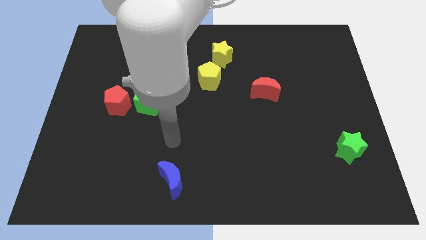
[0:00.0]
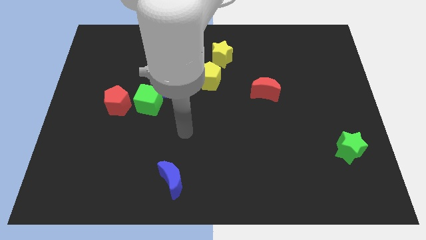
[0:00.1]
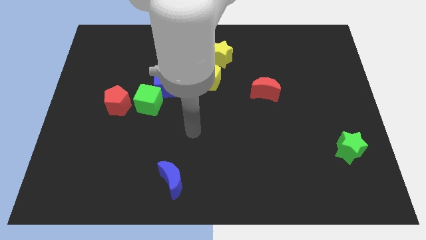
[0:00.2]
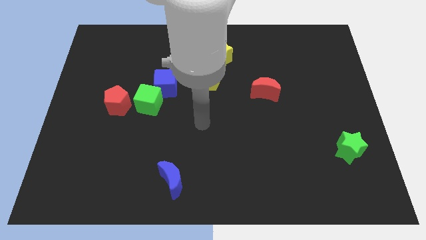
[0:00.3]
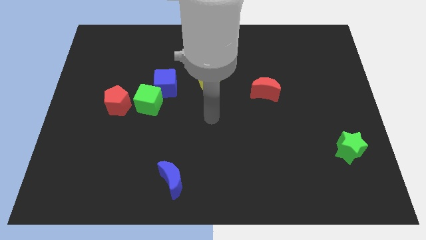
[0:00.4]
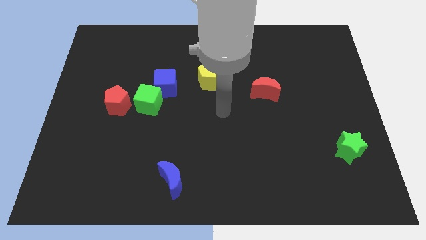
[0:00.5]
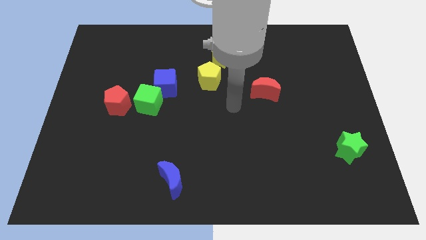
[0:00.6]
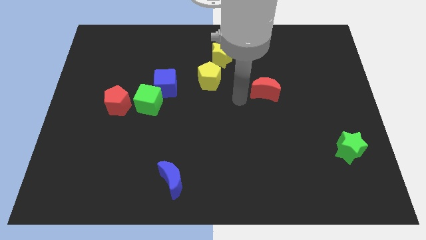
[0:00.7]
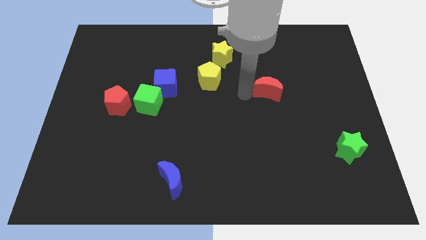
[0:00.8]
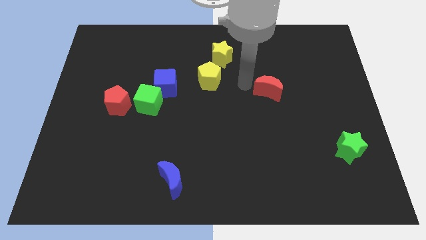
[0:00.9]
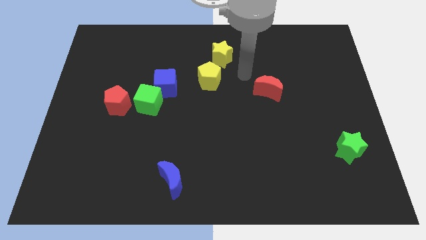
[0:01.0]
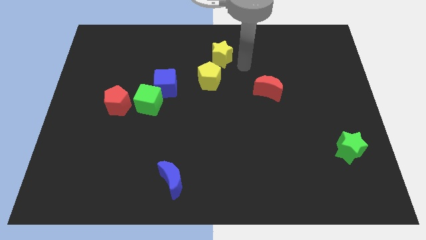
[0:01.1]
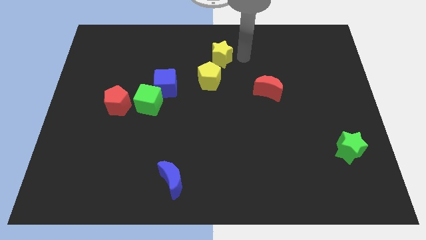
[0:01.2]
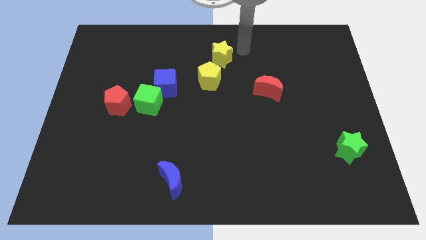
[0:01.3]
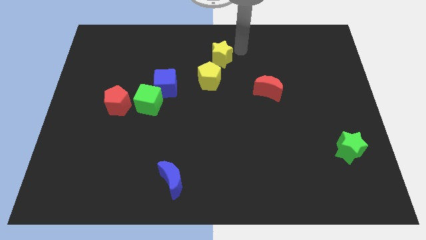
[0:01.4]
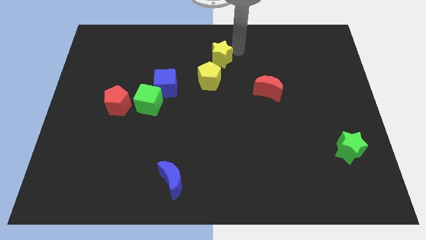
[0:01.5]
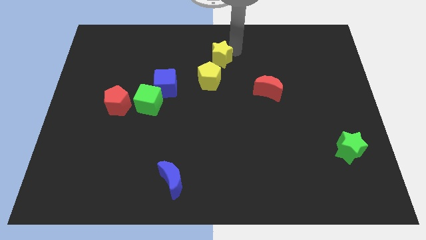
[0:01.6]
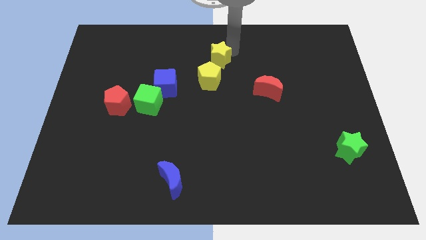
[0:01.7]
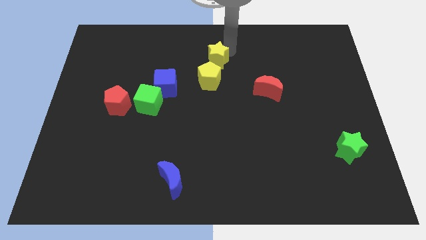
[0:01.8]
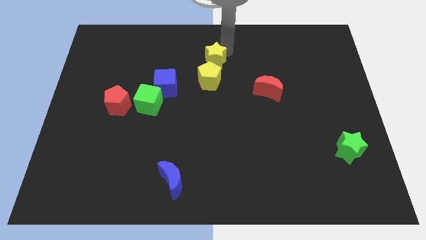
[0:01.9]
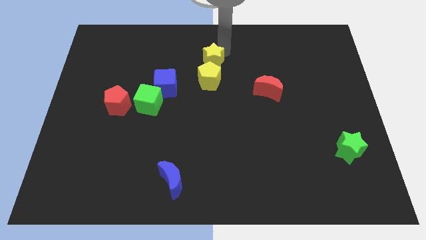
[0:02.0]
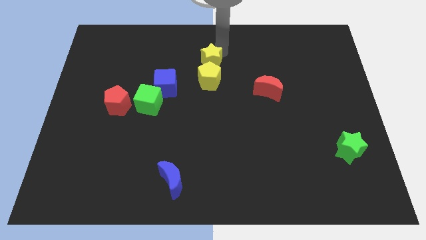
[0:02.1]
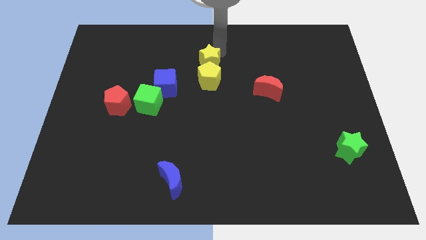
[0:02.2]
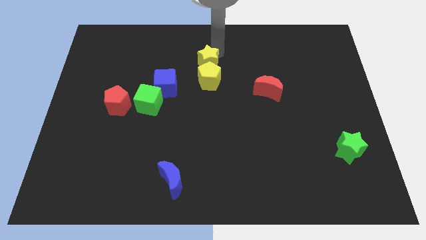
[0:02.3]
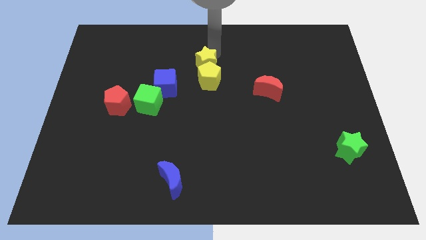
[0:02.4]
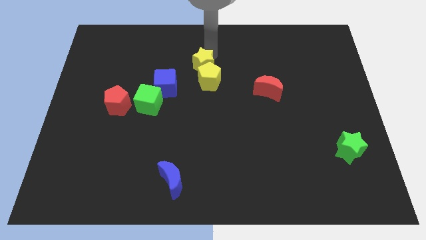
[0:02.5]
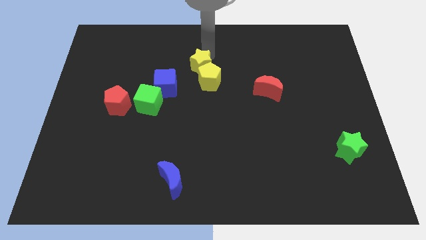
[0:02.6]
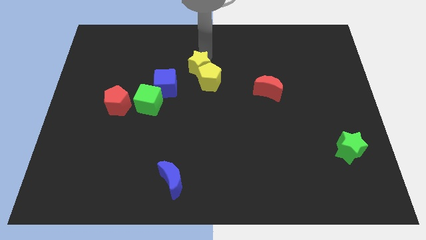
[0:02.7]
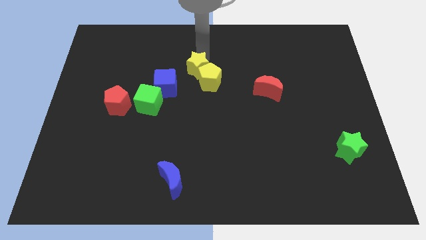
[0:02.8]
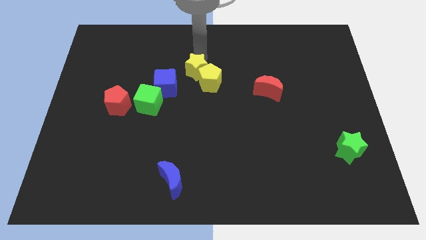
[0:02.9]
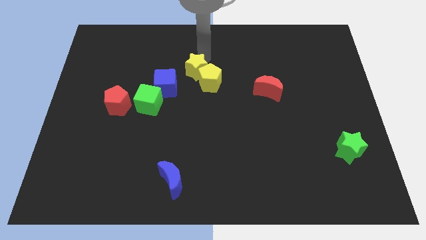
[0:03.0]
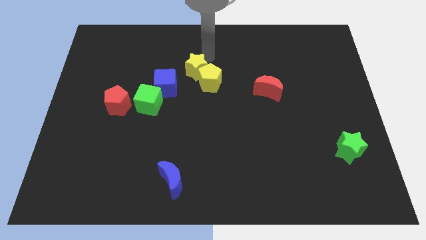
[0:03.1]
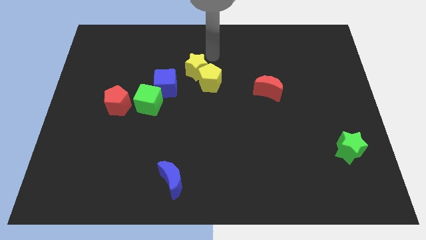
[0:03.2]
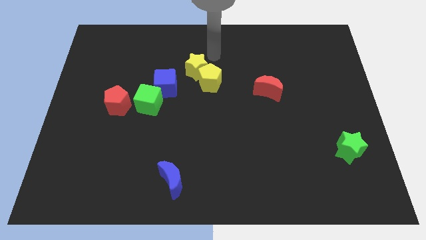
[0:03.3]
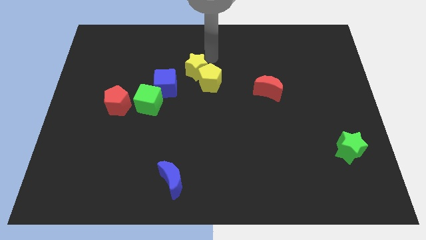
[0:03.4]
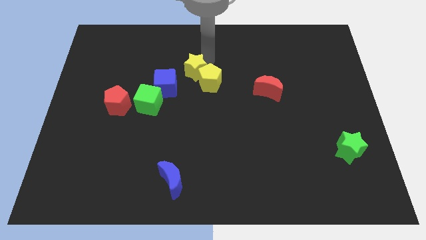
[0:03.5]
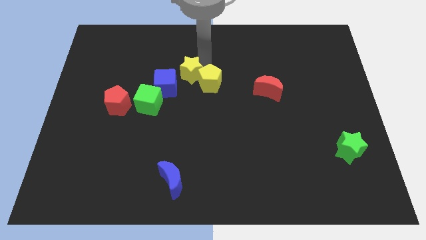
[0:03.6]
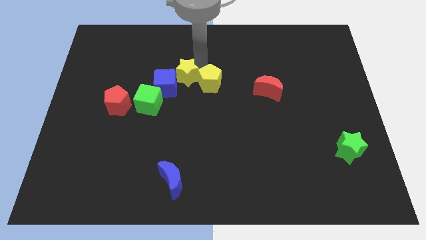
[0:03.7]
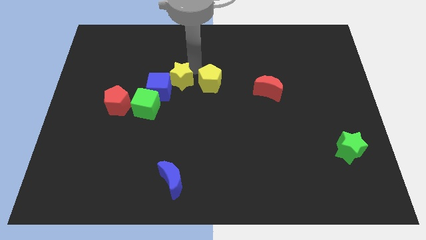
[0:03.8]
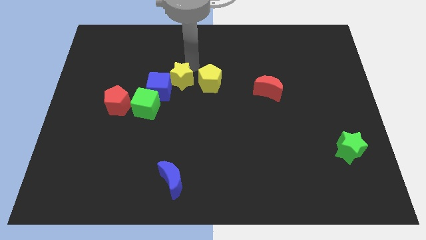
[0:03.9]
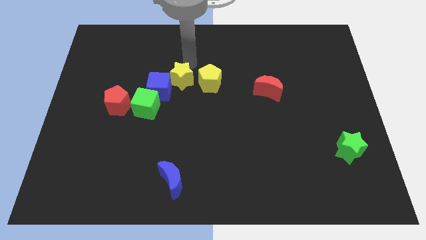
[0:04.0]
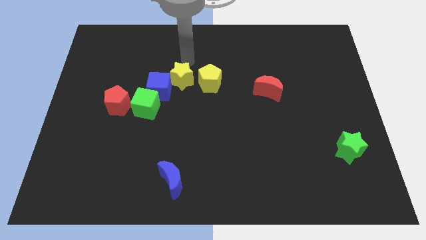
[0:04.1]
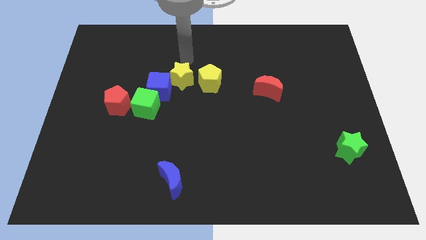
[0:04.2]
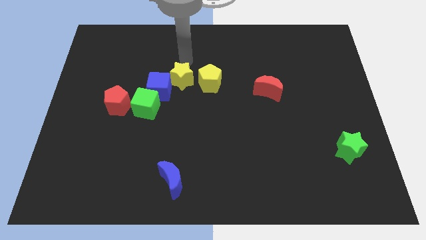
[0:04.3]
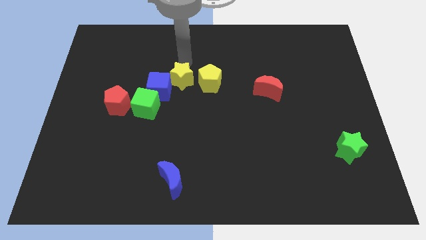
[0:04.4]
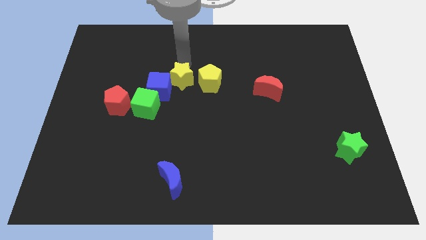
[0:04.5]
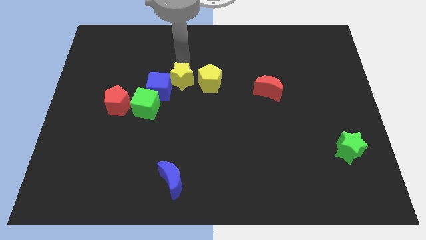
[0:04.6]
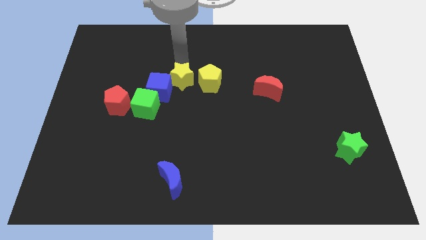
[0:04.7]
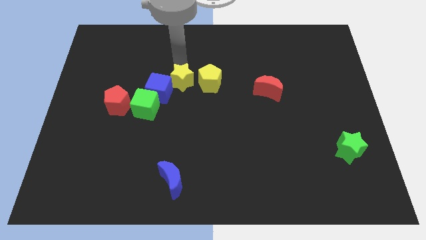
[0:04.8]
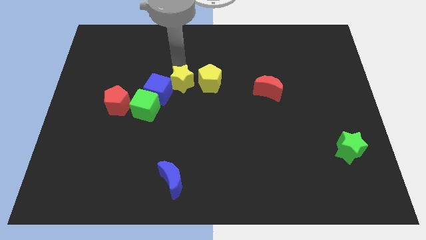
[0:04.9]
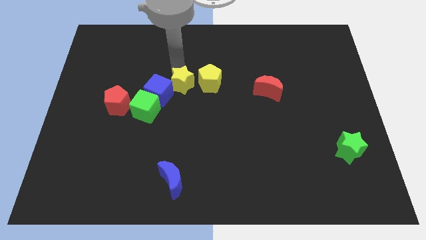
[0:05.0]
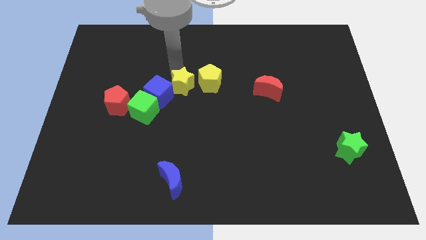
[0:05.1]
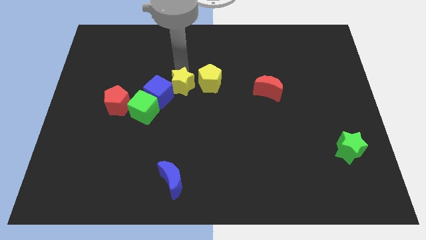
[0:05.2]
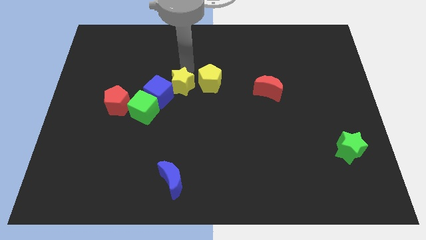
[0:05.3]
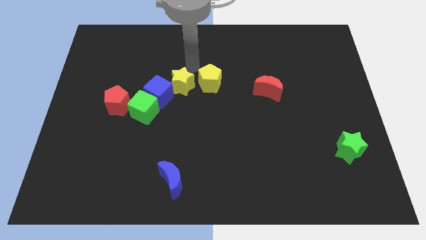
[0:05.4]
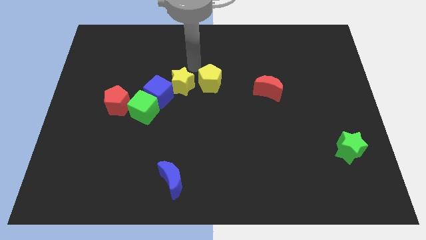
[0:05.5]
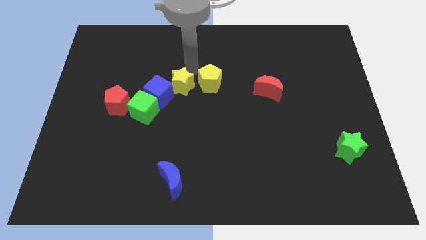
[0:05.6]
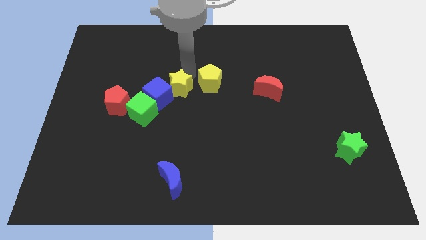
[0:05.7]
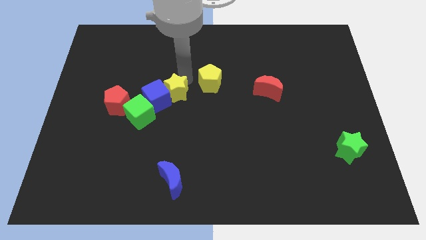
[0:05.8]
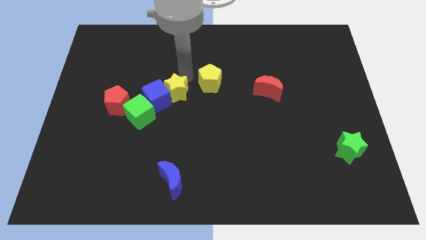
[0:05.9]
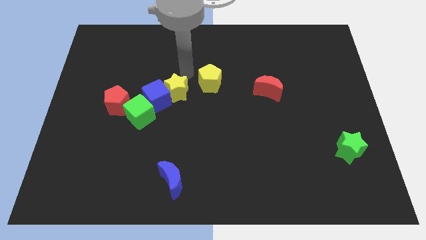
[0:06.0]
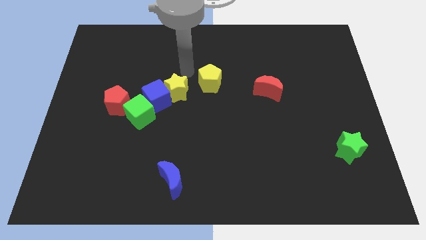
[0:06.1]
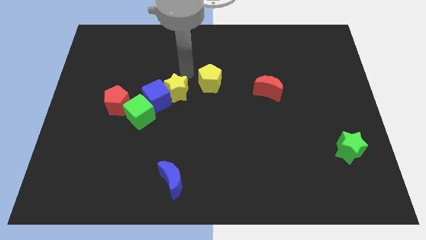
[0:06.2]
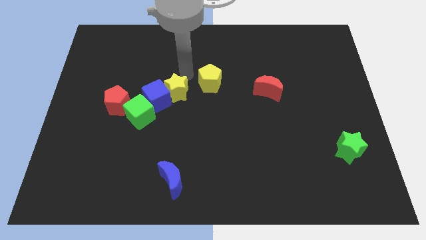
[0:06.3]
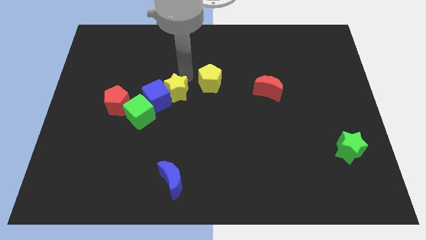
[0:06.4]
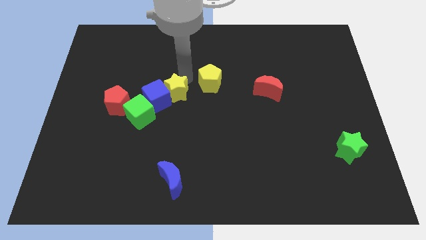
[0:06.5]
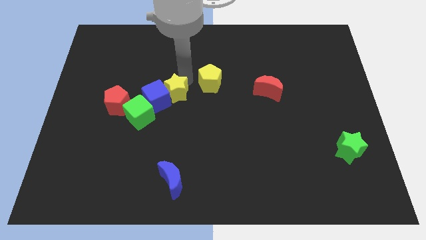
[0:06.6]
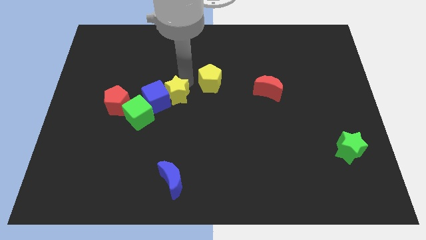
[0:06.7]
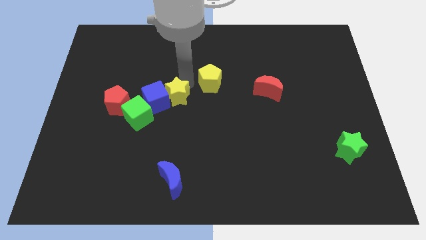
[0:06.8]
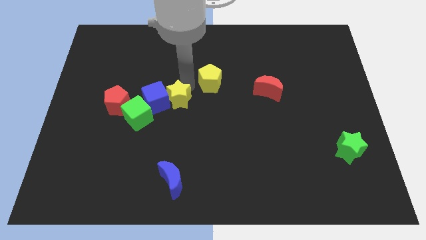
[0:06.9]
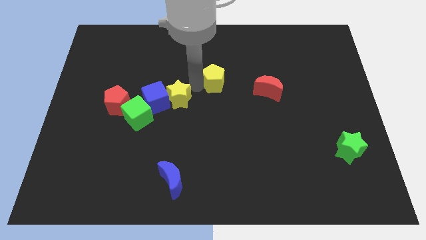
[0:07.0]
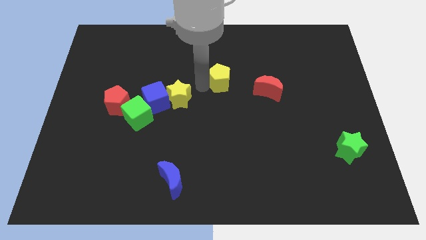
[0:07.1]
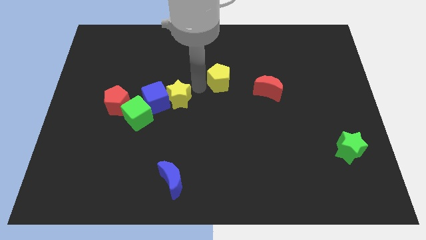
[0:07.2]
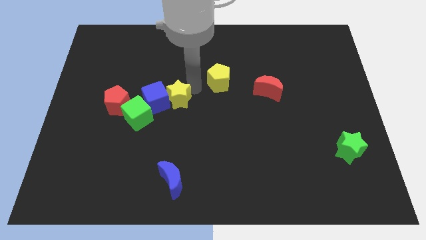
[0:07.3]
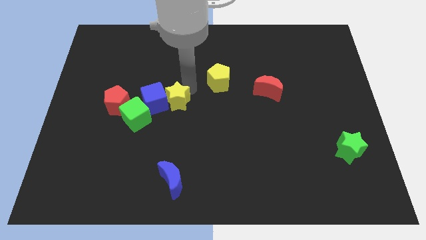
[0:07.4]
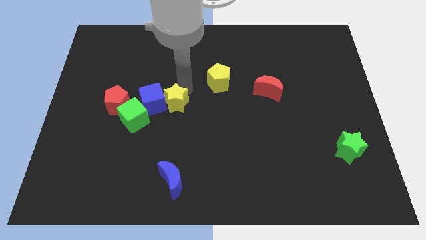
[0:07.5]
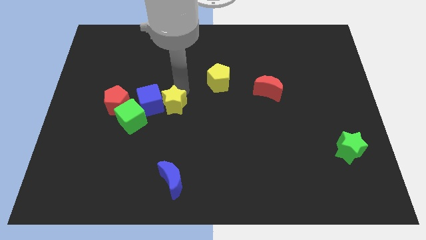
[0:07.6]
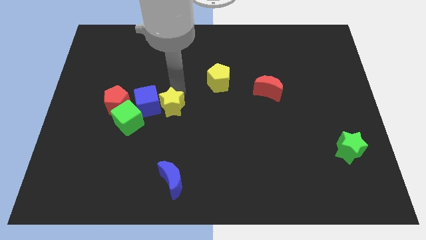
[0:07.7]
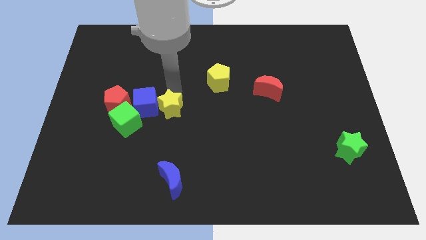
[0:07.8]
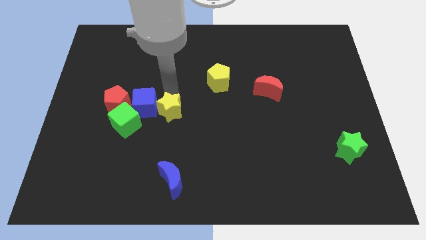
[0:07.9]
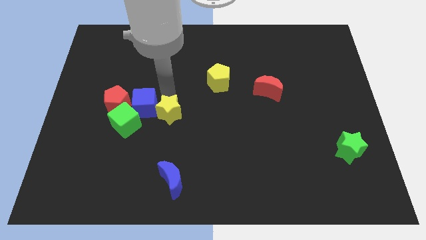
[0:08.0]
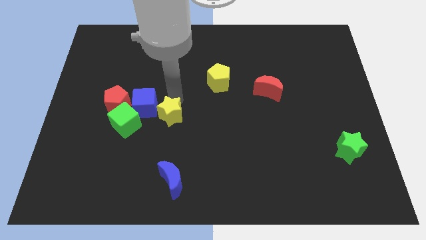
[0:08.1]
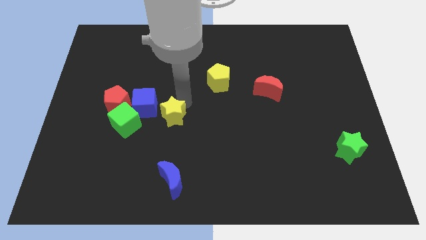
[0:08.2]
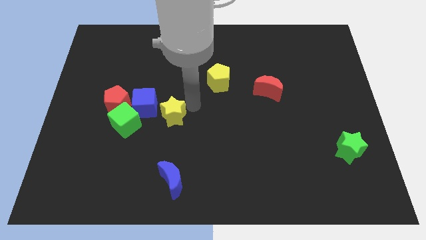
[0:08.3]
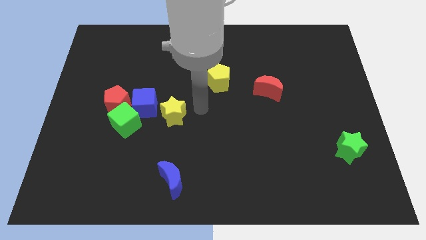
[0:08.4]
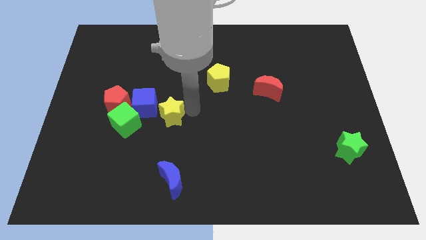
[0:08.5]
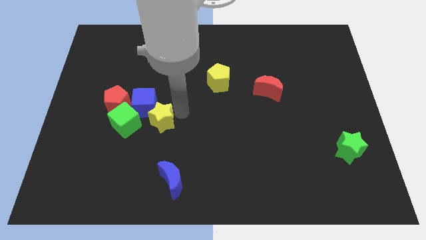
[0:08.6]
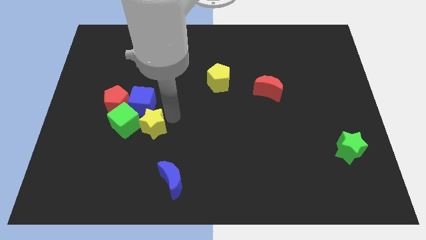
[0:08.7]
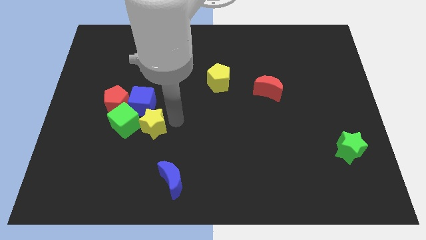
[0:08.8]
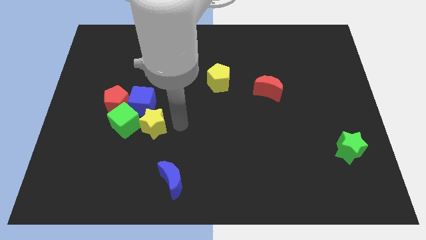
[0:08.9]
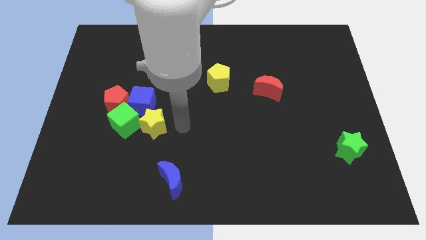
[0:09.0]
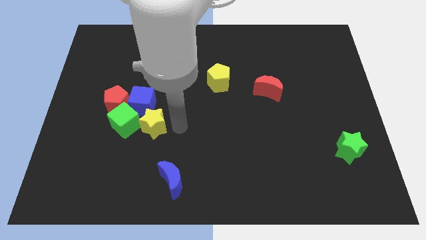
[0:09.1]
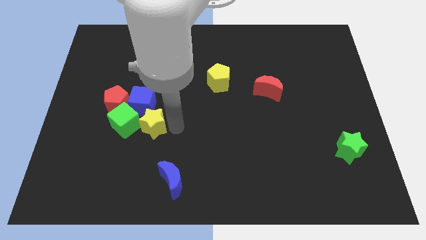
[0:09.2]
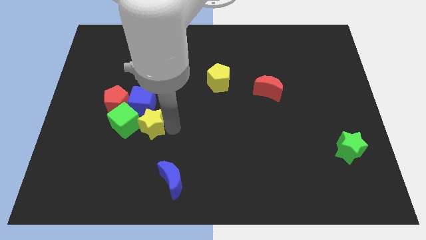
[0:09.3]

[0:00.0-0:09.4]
slide the yellow star towards the green cube
